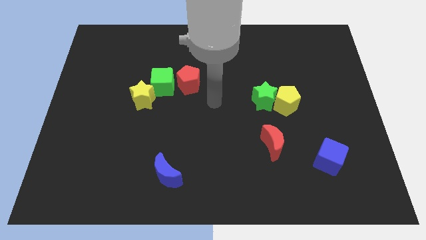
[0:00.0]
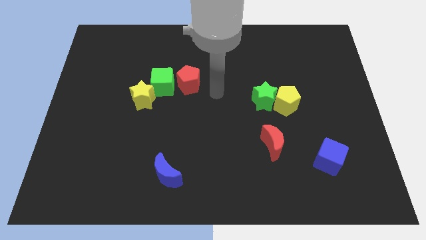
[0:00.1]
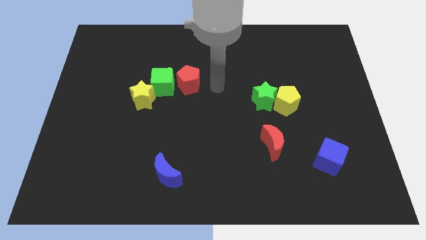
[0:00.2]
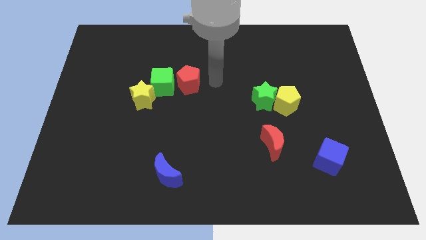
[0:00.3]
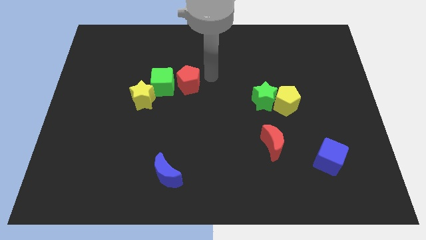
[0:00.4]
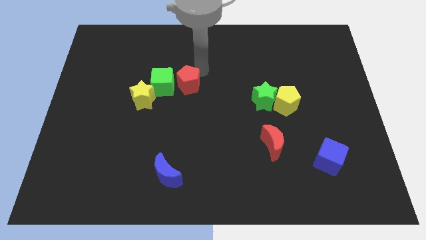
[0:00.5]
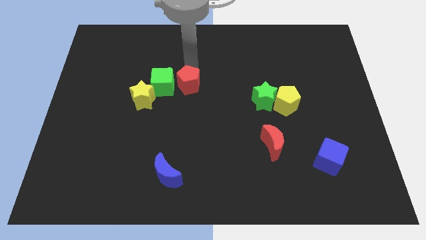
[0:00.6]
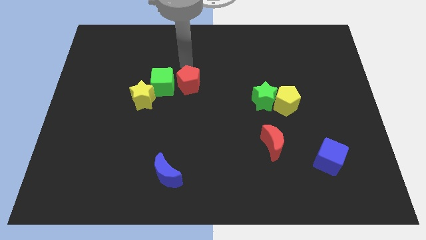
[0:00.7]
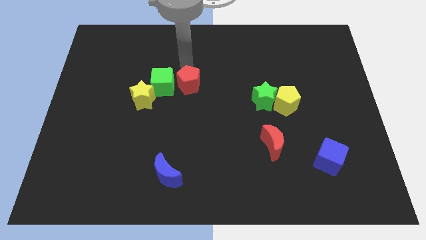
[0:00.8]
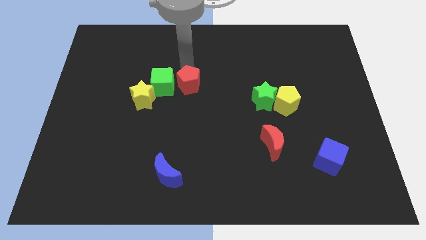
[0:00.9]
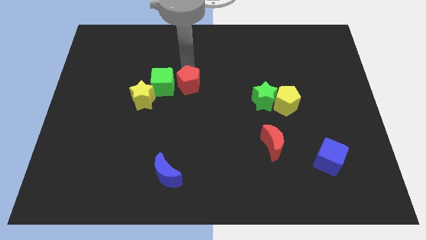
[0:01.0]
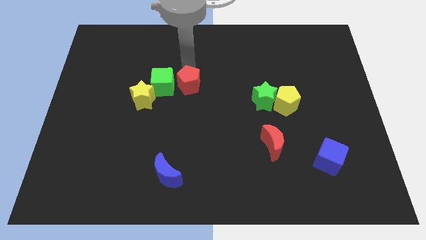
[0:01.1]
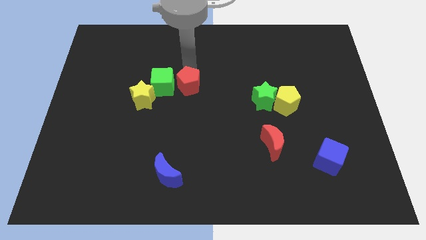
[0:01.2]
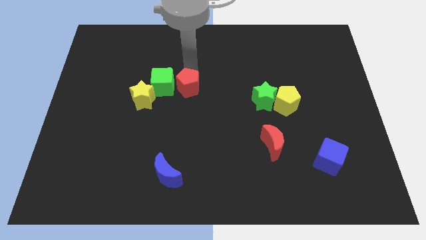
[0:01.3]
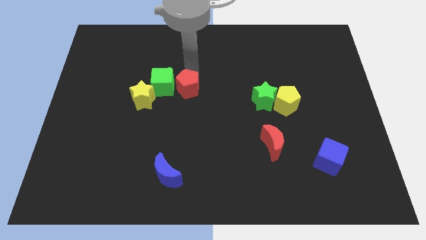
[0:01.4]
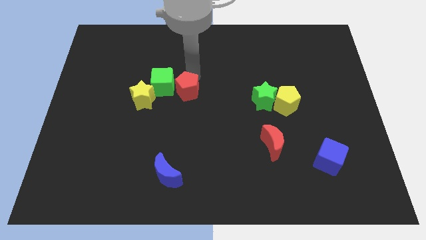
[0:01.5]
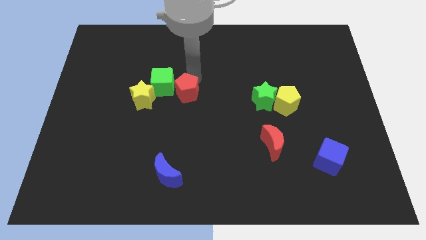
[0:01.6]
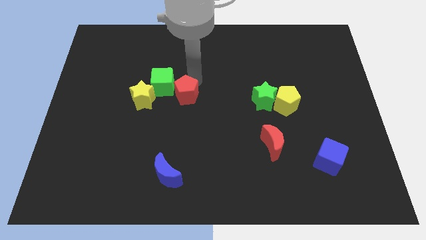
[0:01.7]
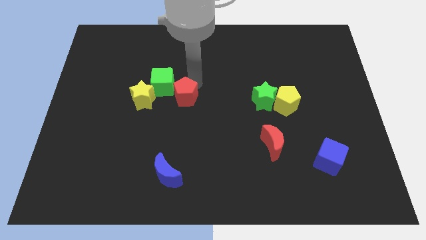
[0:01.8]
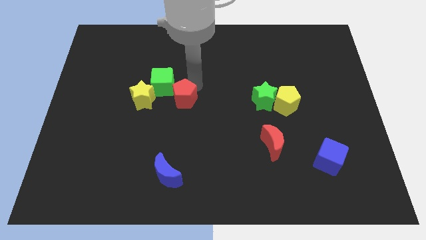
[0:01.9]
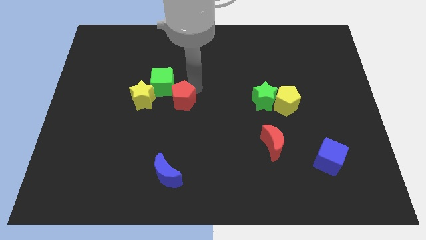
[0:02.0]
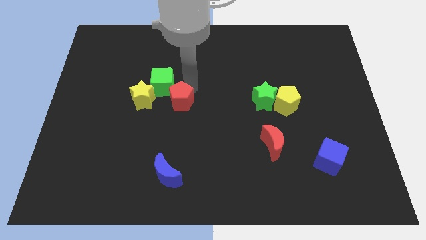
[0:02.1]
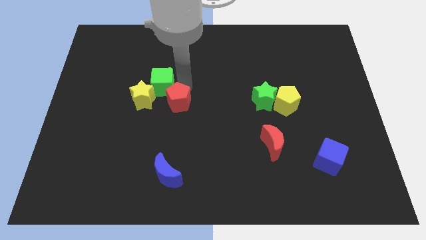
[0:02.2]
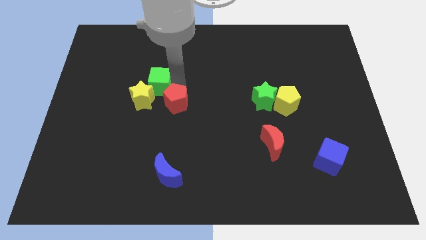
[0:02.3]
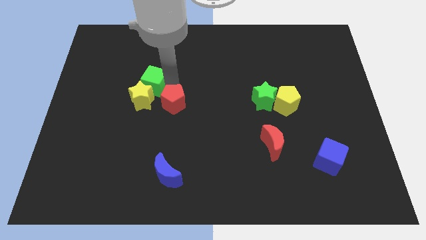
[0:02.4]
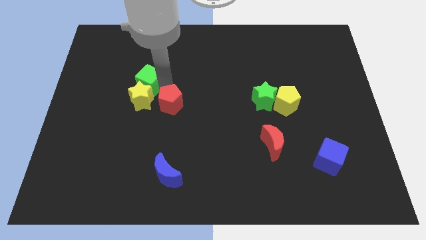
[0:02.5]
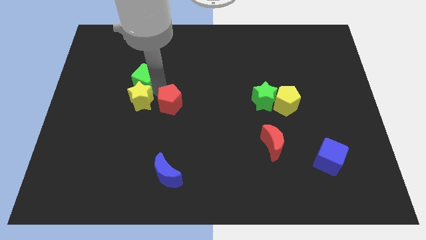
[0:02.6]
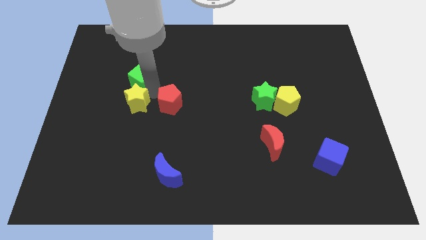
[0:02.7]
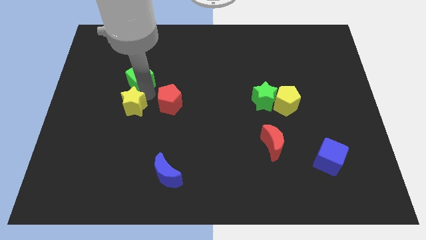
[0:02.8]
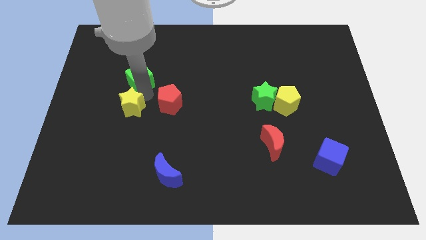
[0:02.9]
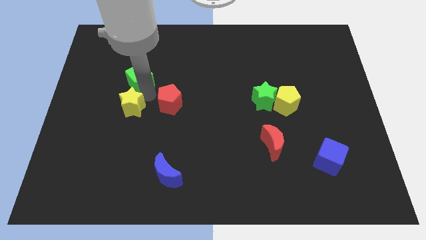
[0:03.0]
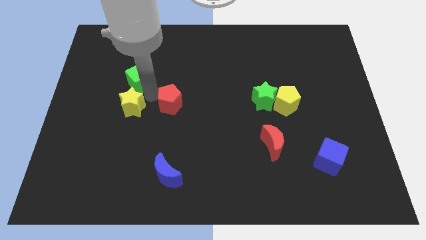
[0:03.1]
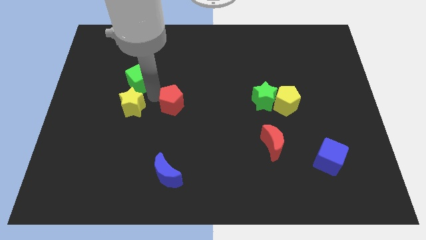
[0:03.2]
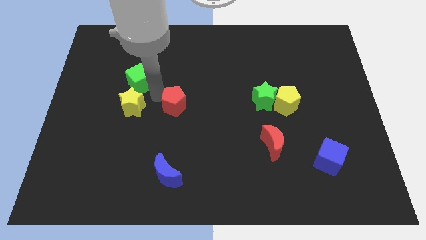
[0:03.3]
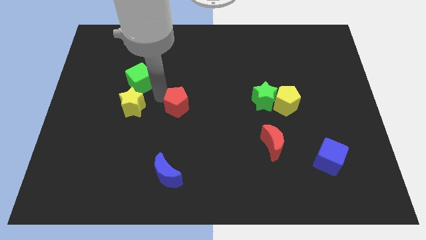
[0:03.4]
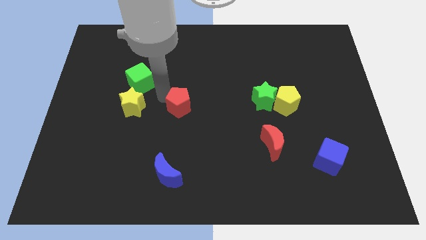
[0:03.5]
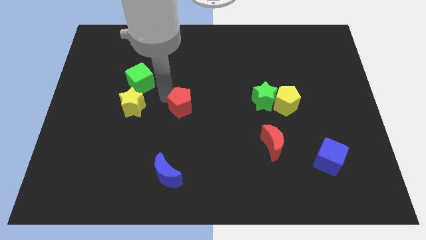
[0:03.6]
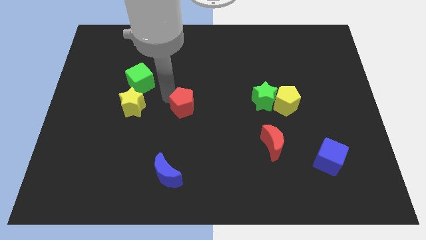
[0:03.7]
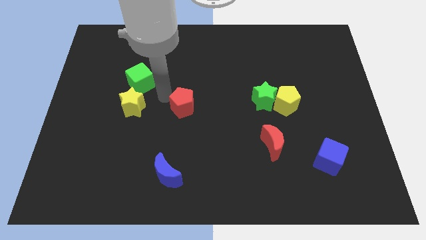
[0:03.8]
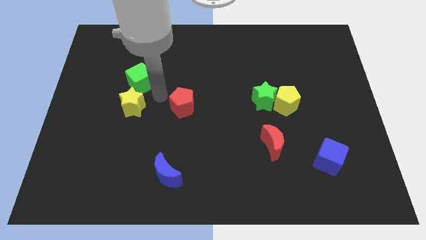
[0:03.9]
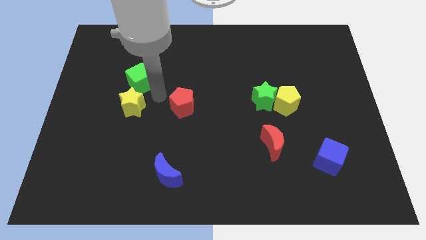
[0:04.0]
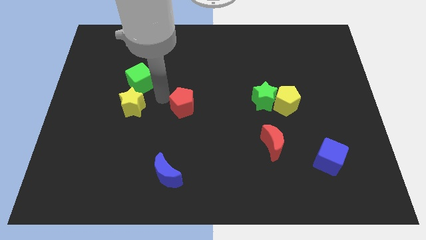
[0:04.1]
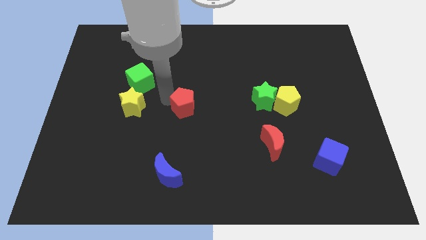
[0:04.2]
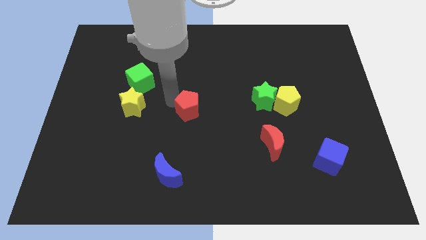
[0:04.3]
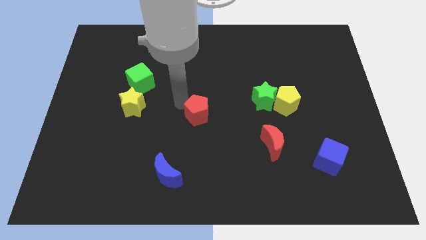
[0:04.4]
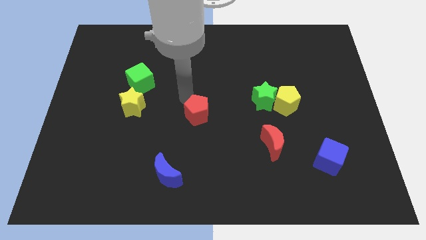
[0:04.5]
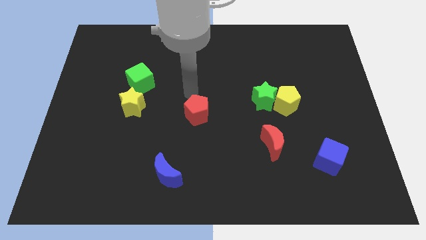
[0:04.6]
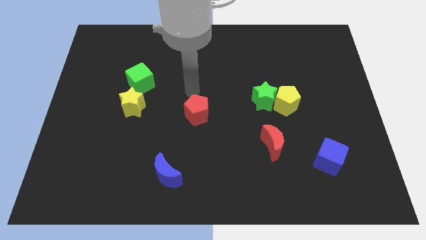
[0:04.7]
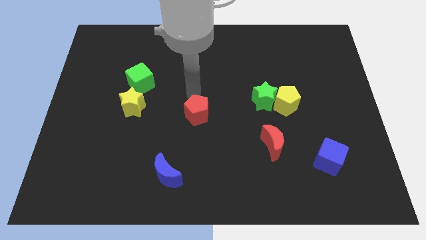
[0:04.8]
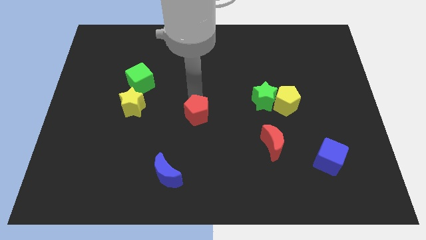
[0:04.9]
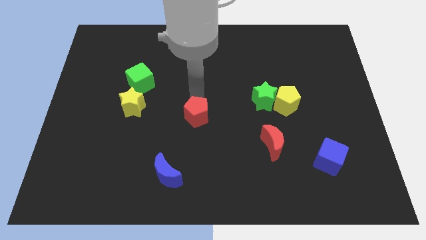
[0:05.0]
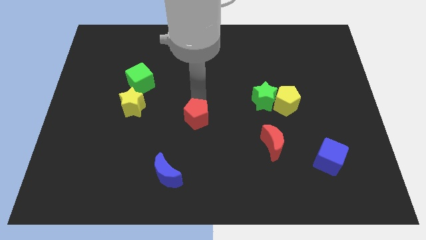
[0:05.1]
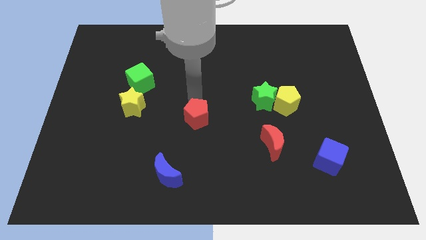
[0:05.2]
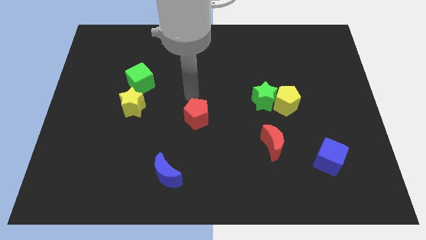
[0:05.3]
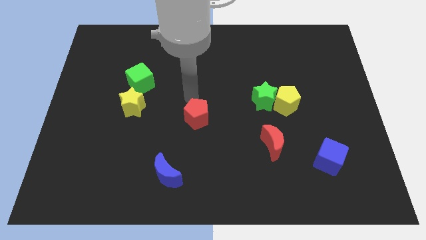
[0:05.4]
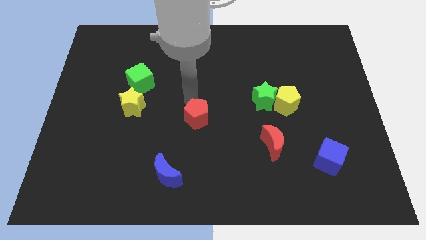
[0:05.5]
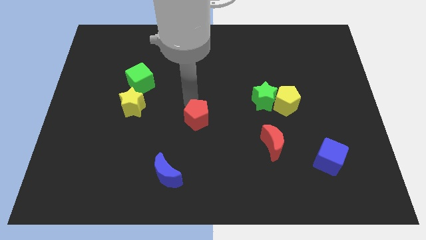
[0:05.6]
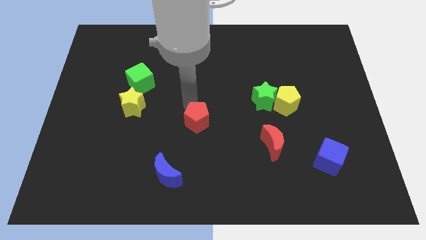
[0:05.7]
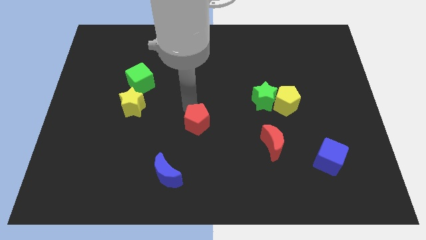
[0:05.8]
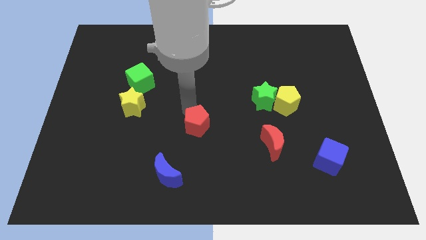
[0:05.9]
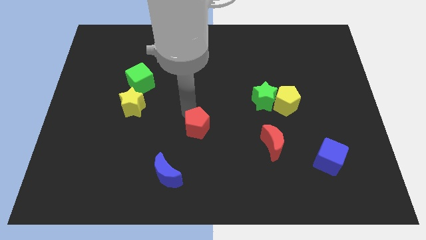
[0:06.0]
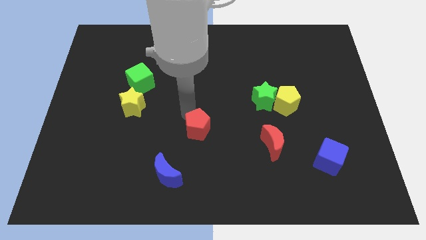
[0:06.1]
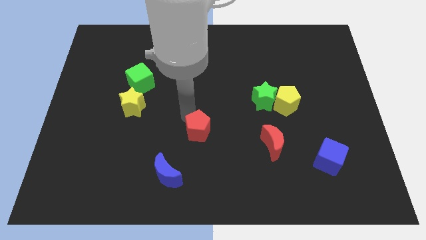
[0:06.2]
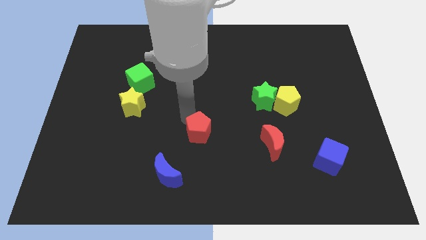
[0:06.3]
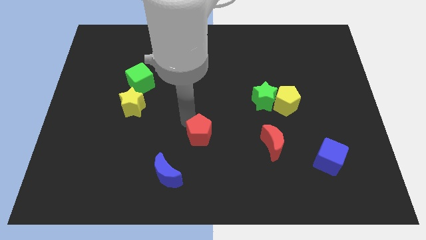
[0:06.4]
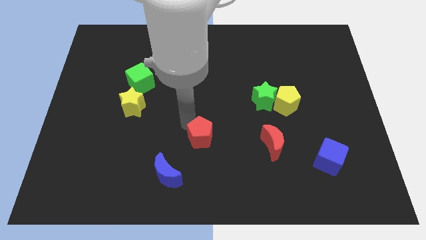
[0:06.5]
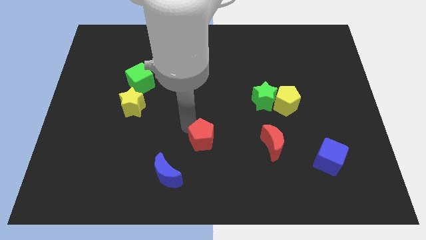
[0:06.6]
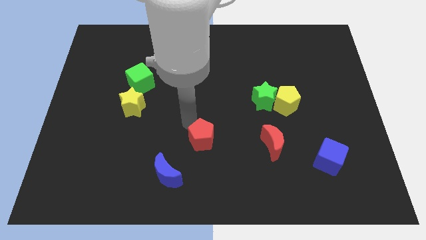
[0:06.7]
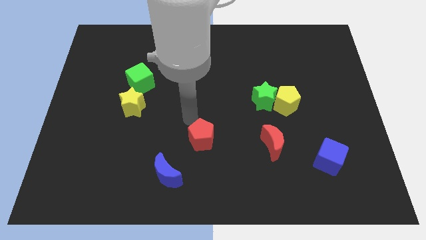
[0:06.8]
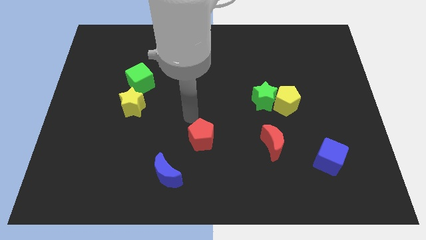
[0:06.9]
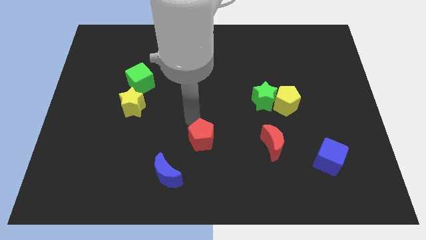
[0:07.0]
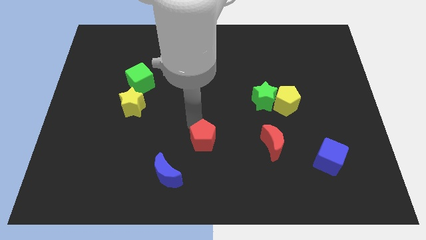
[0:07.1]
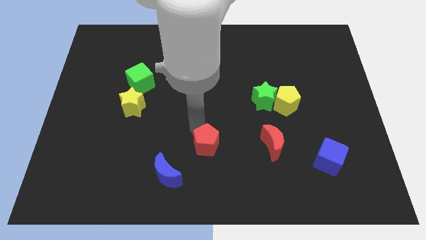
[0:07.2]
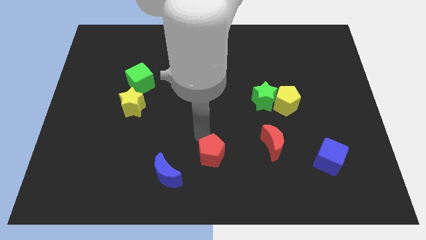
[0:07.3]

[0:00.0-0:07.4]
slide the red pentagon just right of the blue moon
